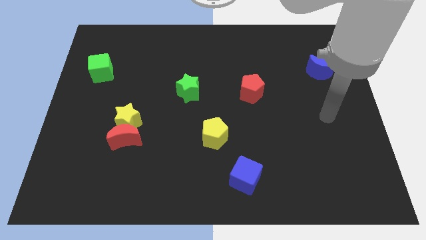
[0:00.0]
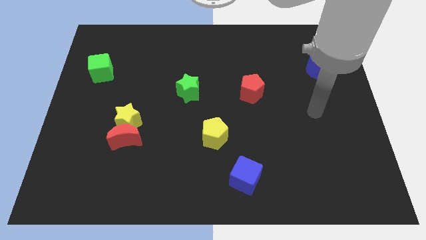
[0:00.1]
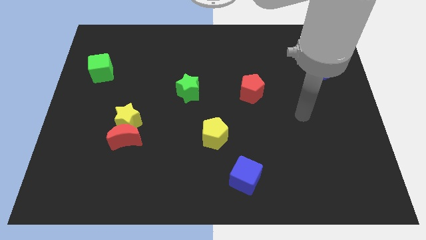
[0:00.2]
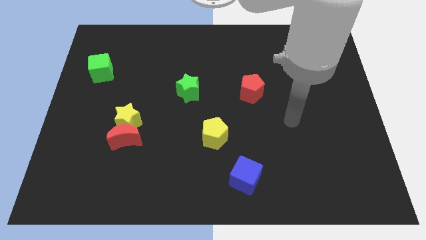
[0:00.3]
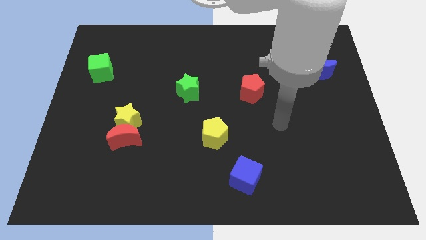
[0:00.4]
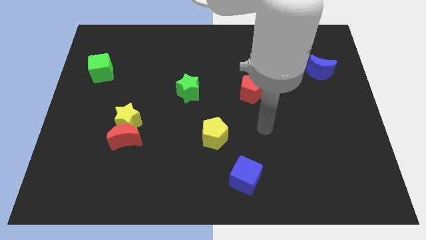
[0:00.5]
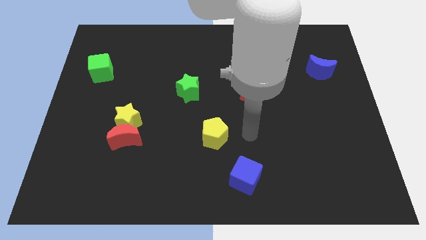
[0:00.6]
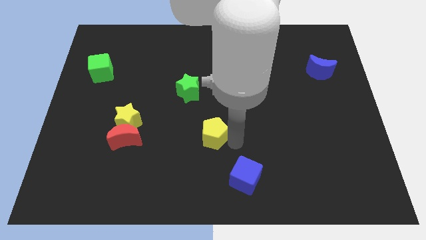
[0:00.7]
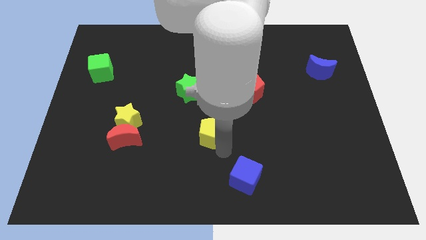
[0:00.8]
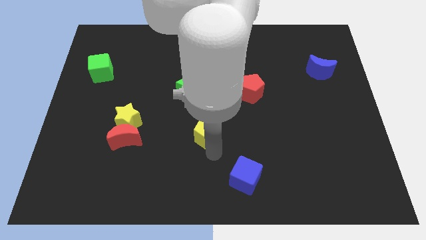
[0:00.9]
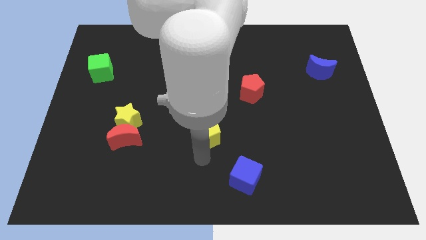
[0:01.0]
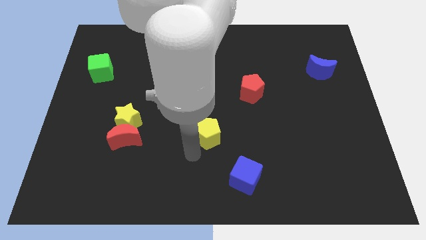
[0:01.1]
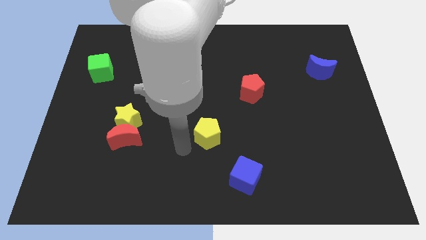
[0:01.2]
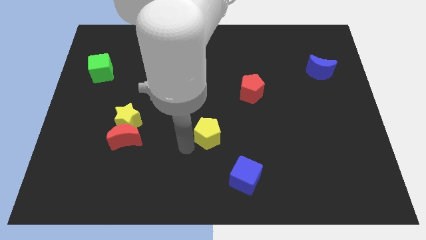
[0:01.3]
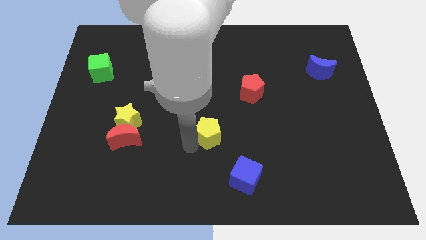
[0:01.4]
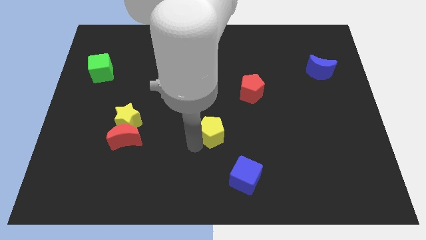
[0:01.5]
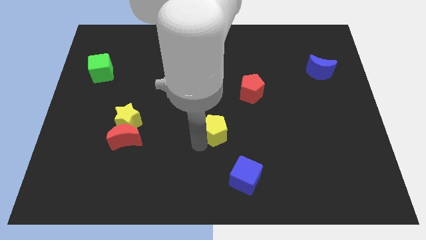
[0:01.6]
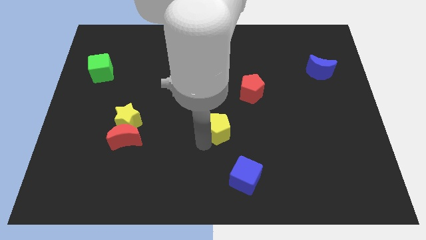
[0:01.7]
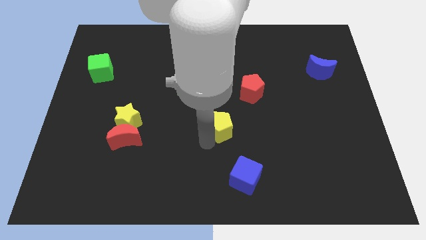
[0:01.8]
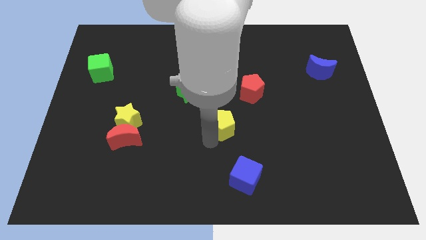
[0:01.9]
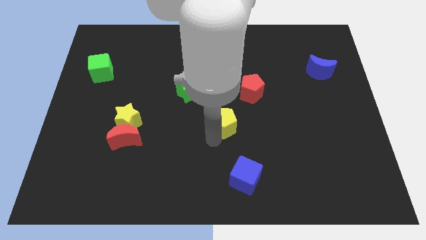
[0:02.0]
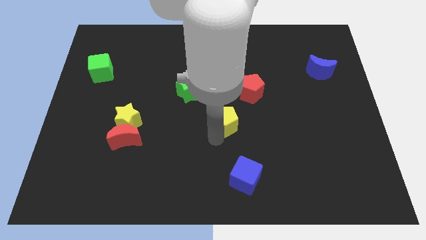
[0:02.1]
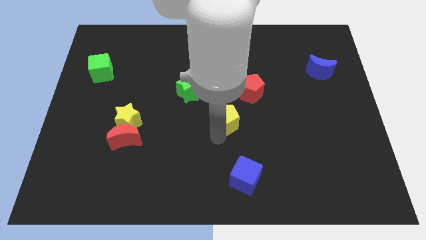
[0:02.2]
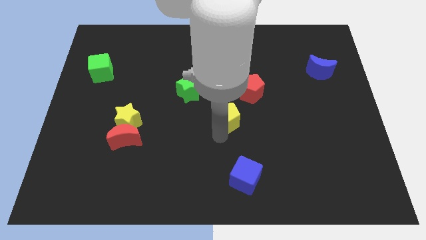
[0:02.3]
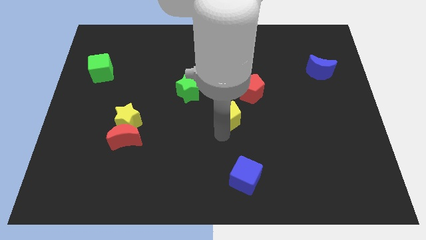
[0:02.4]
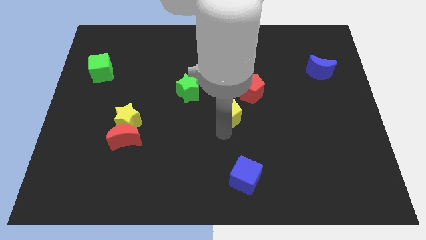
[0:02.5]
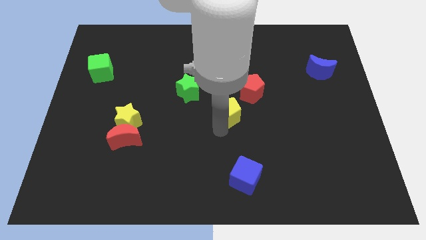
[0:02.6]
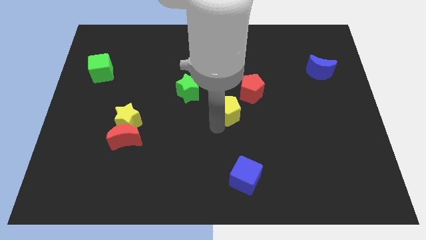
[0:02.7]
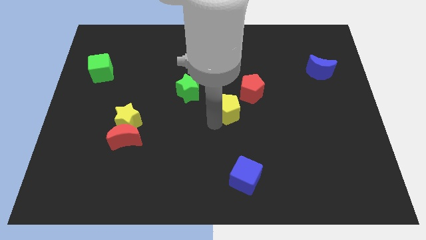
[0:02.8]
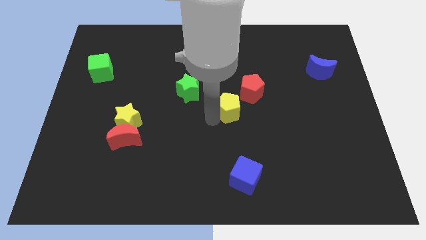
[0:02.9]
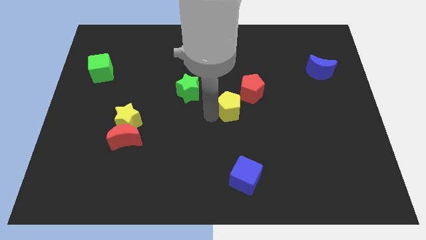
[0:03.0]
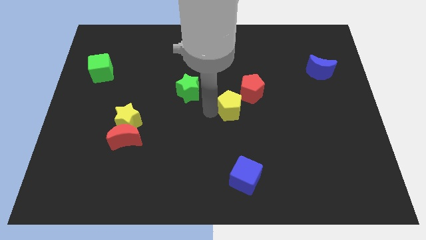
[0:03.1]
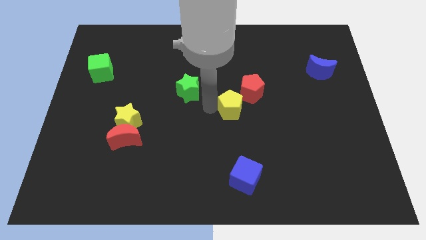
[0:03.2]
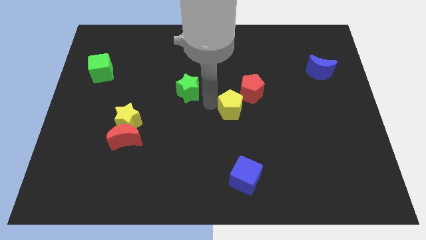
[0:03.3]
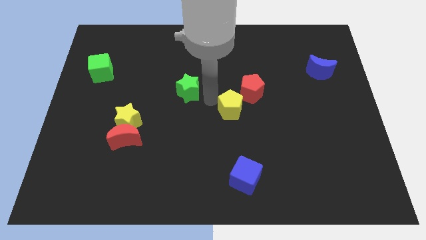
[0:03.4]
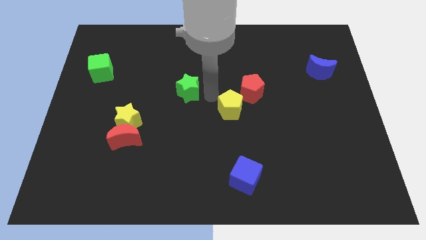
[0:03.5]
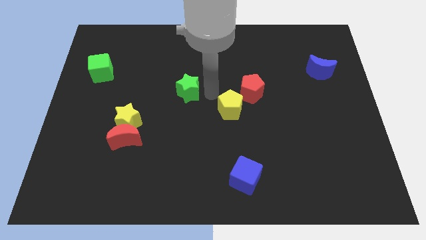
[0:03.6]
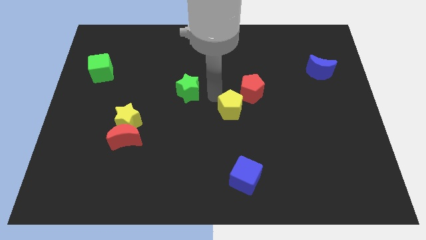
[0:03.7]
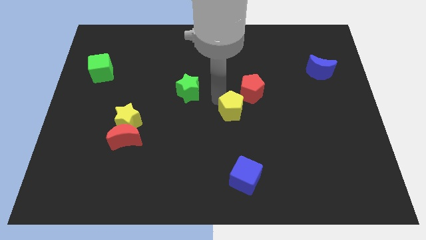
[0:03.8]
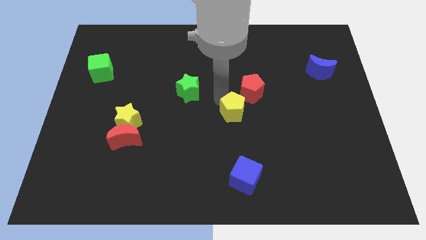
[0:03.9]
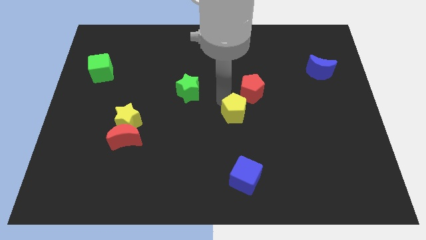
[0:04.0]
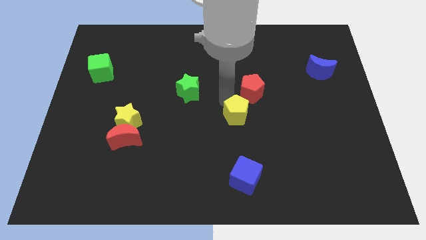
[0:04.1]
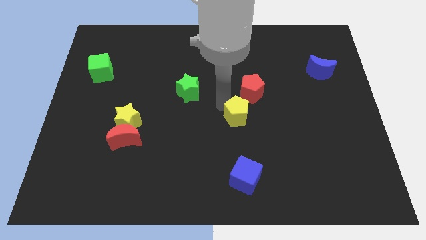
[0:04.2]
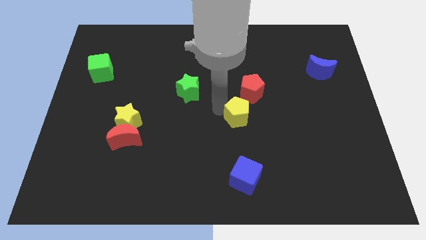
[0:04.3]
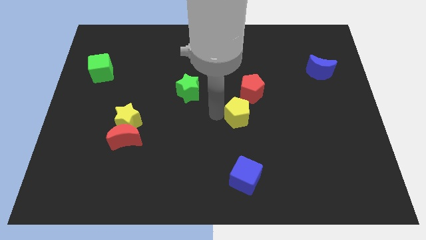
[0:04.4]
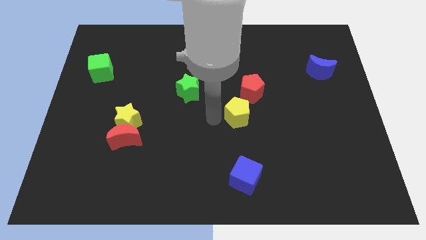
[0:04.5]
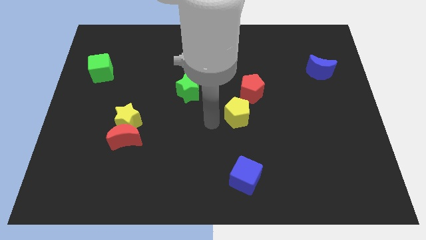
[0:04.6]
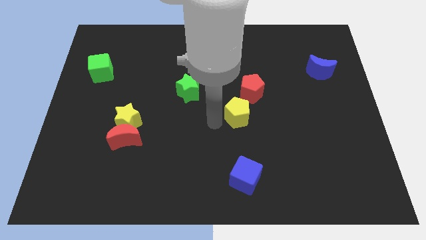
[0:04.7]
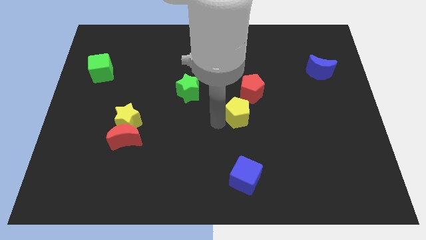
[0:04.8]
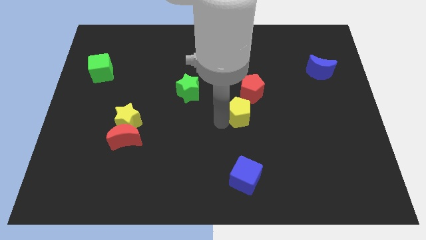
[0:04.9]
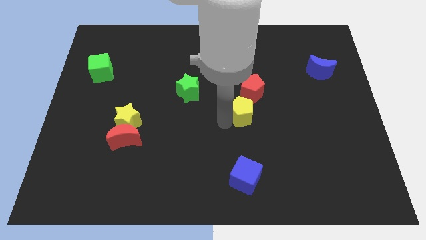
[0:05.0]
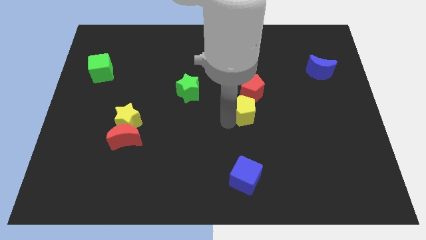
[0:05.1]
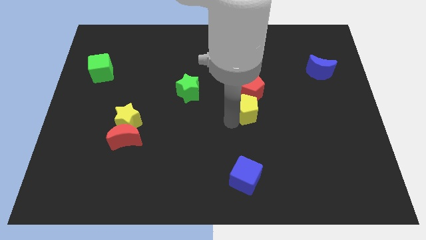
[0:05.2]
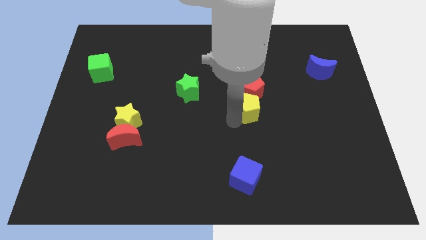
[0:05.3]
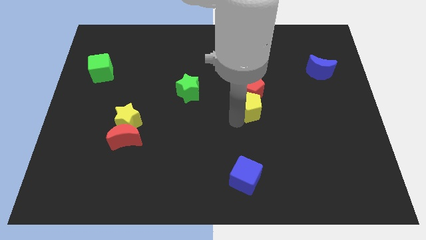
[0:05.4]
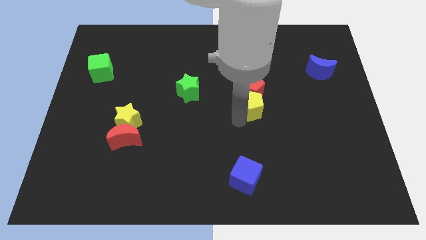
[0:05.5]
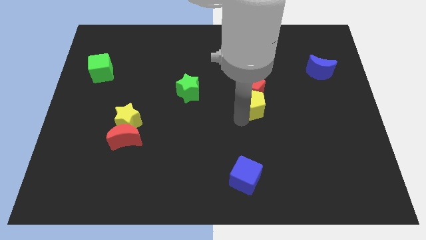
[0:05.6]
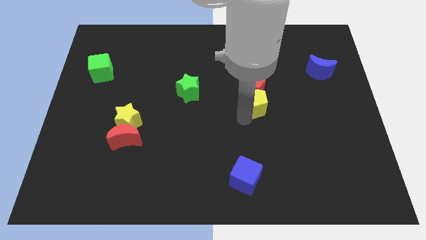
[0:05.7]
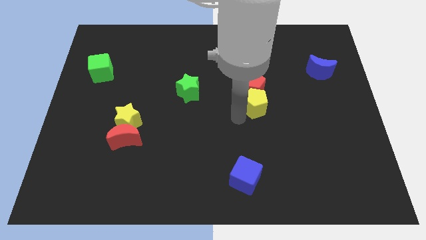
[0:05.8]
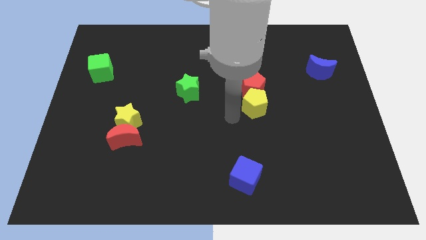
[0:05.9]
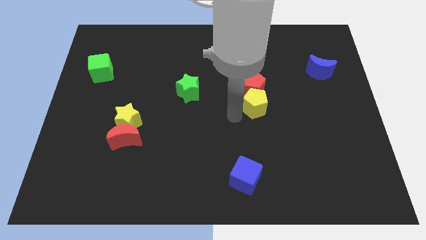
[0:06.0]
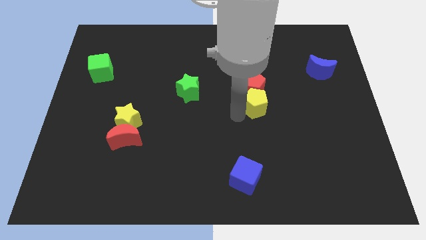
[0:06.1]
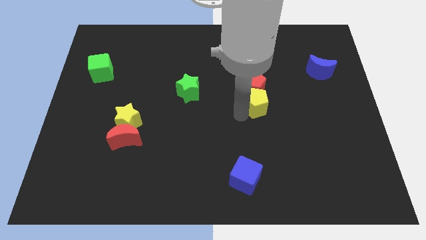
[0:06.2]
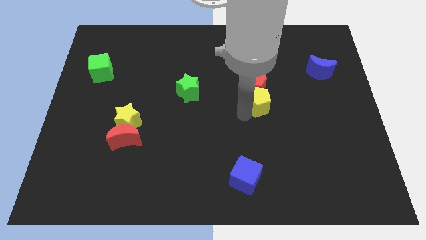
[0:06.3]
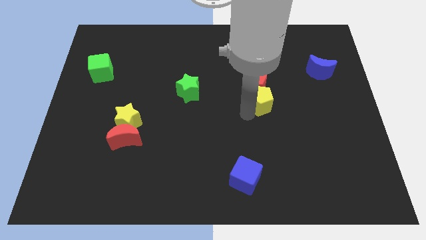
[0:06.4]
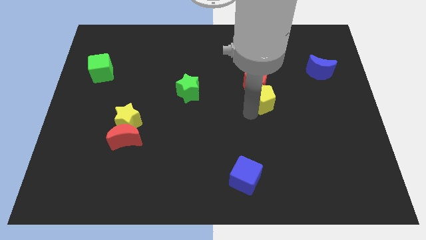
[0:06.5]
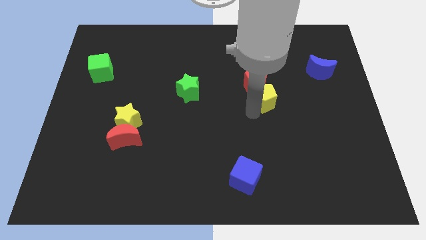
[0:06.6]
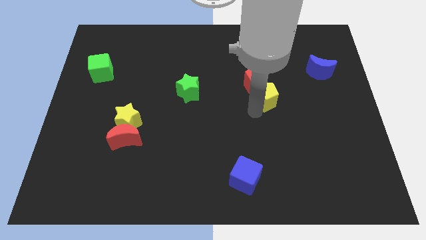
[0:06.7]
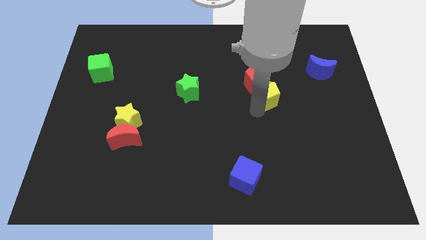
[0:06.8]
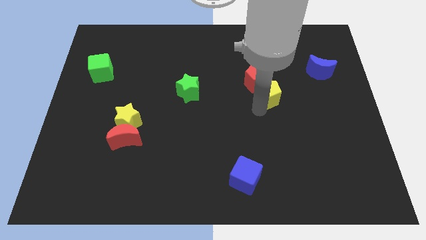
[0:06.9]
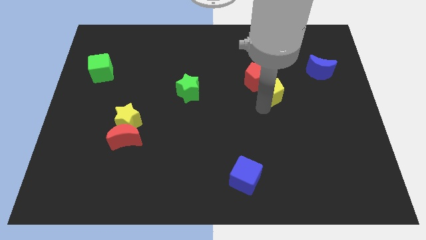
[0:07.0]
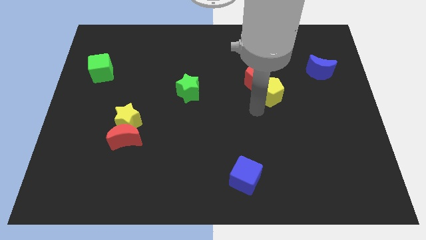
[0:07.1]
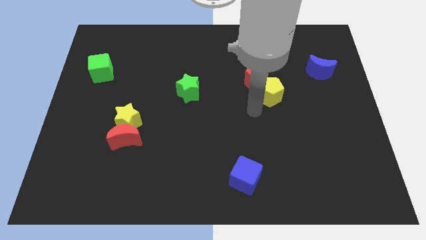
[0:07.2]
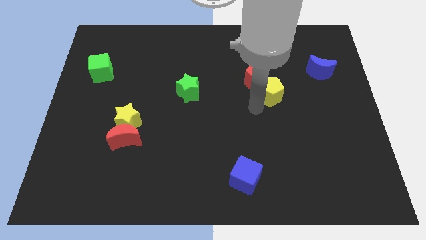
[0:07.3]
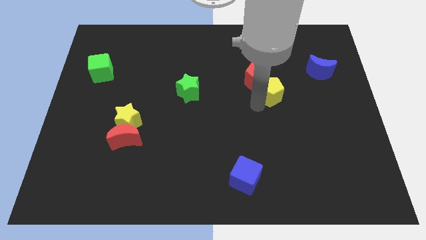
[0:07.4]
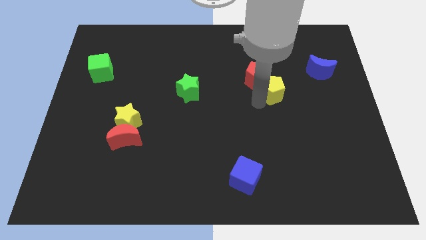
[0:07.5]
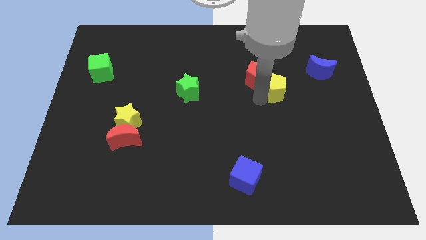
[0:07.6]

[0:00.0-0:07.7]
move the yellow pentagon upwards and to the right diagonally
